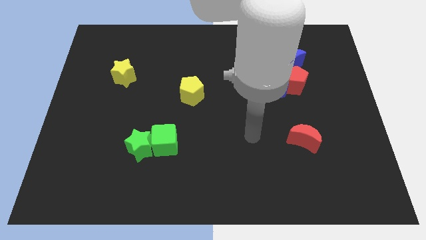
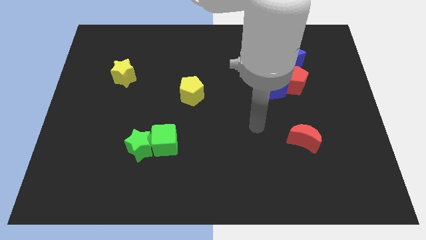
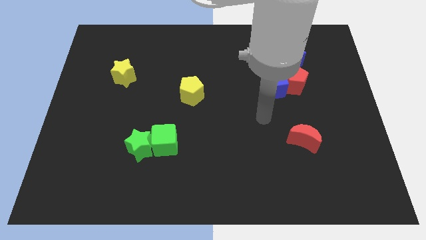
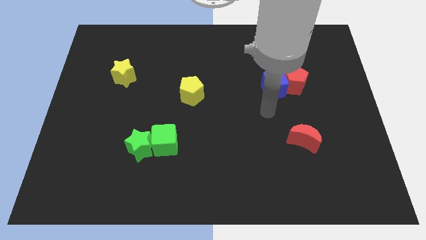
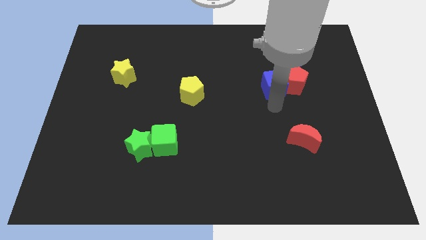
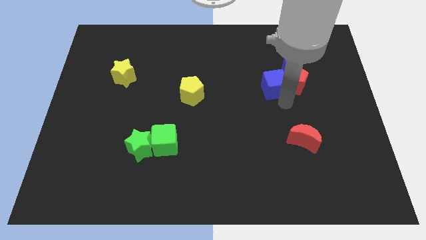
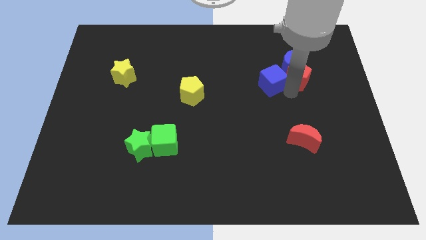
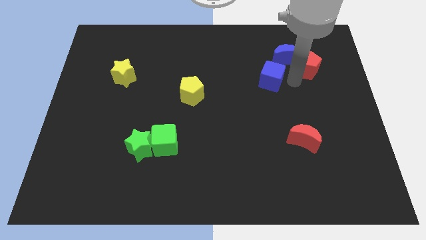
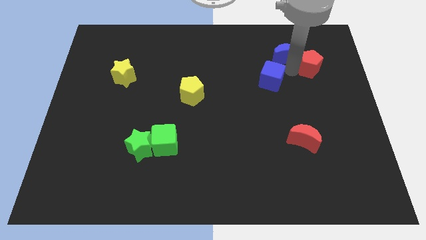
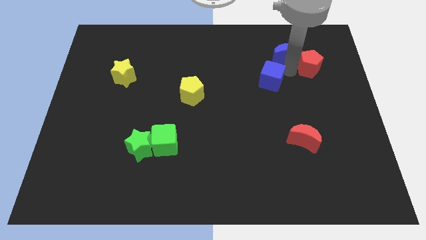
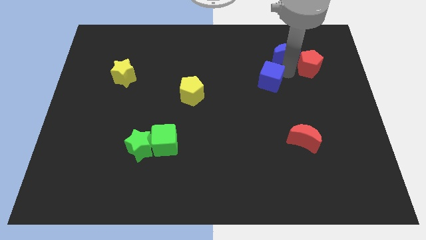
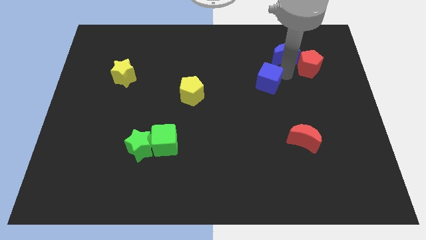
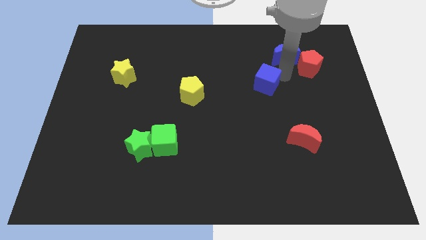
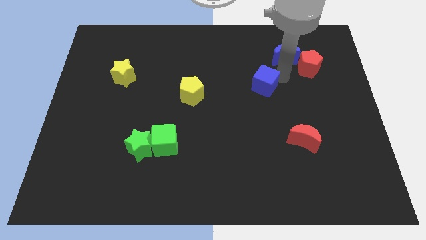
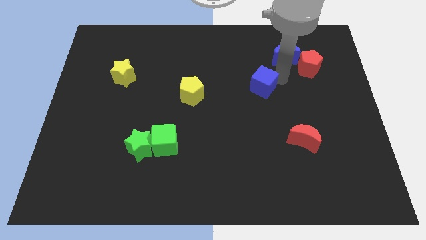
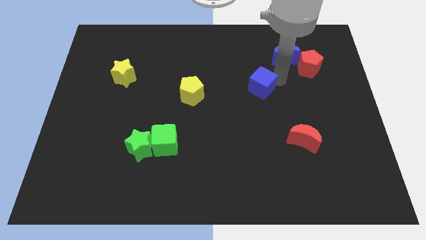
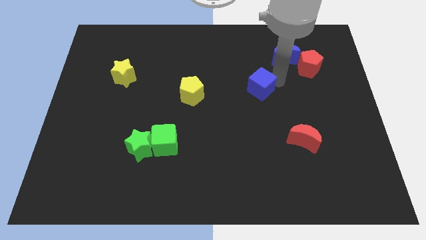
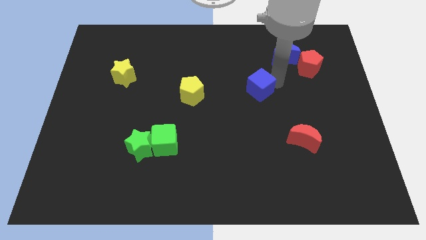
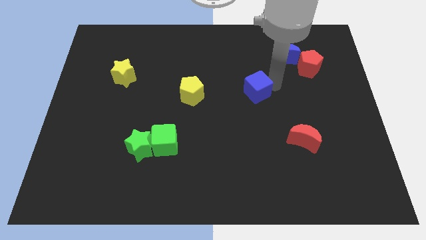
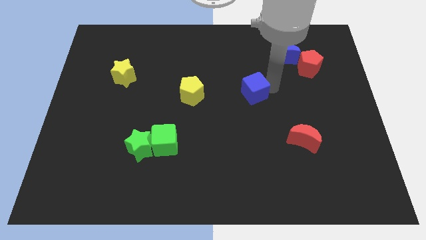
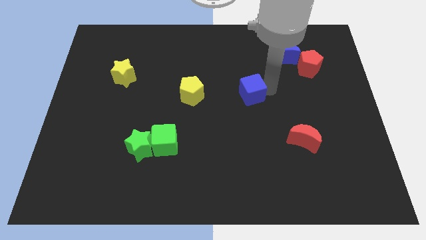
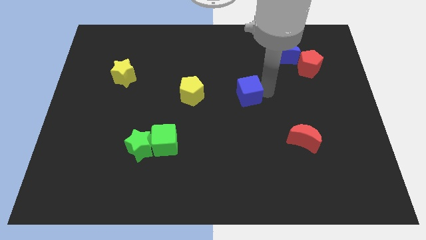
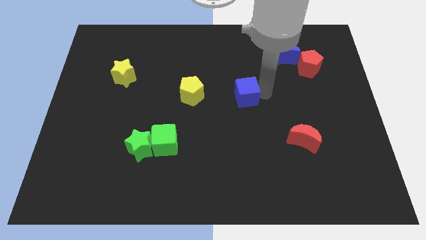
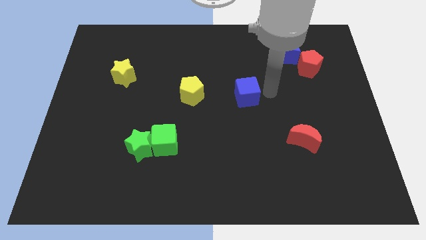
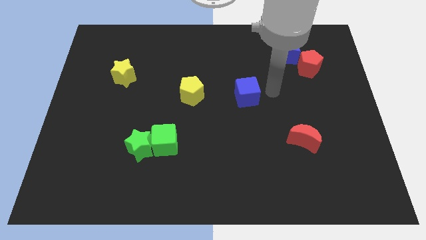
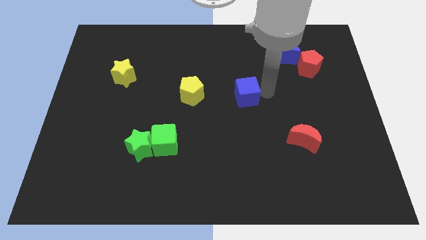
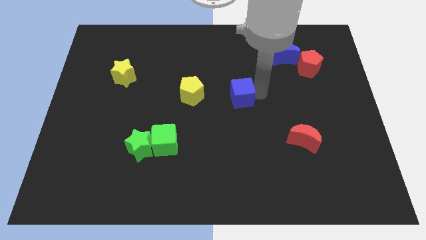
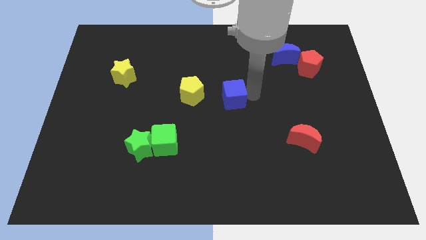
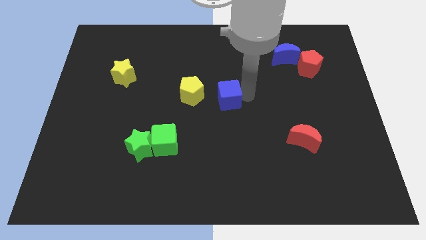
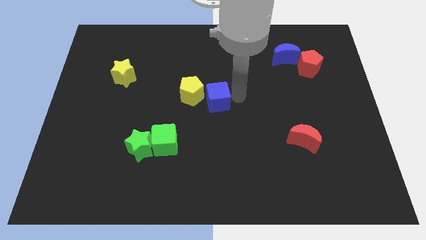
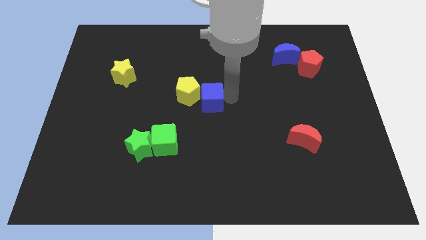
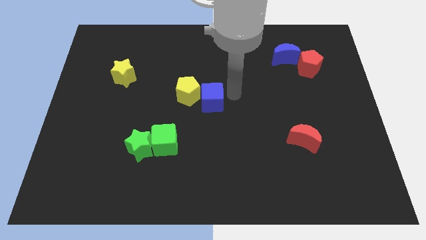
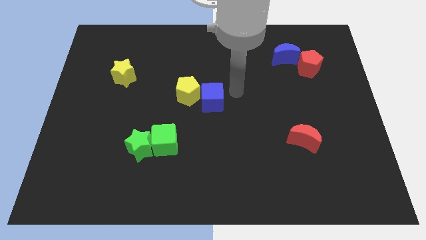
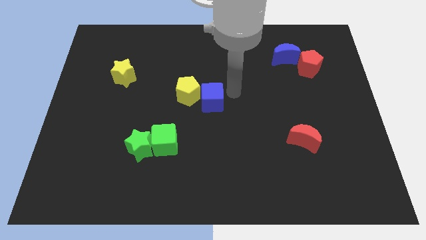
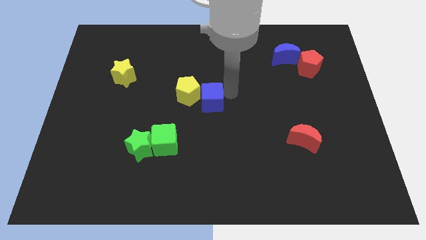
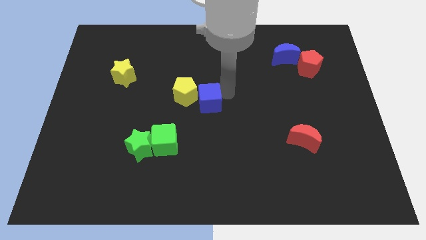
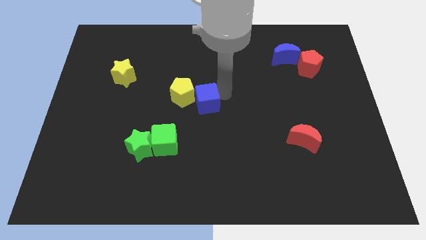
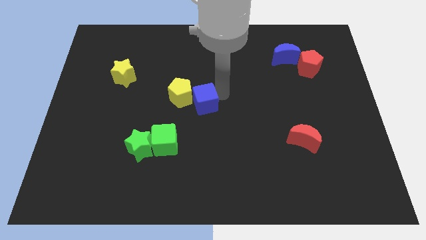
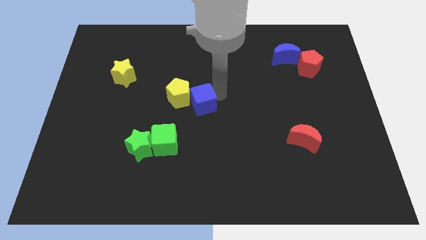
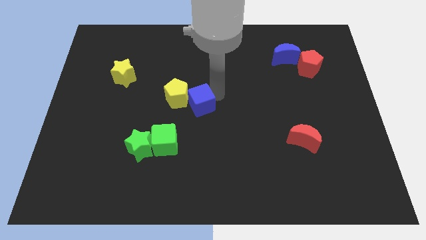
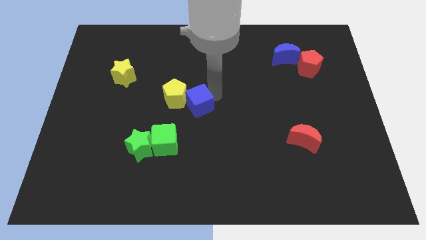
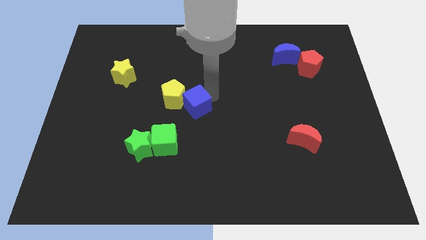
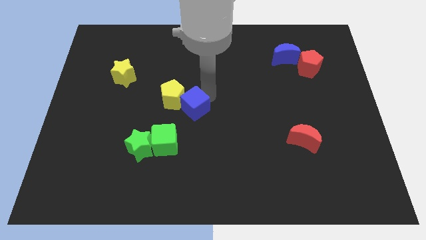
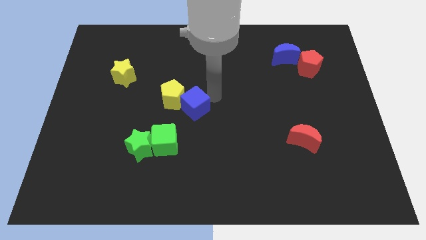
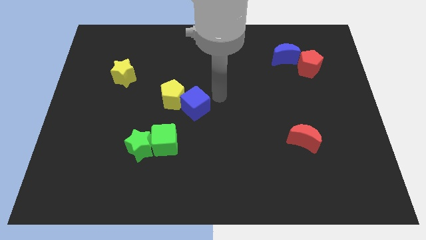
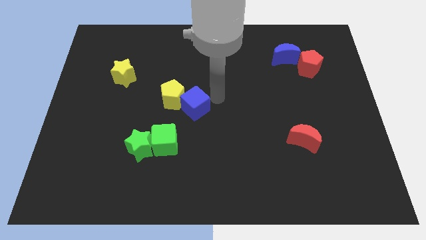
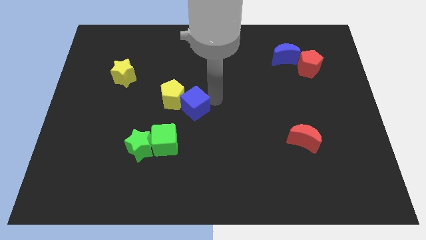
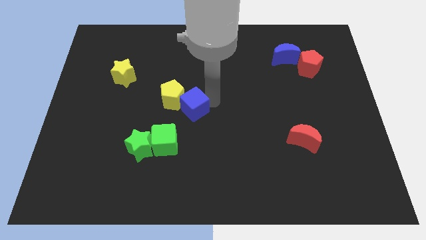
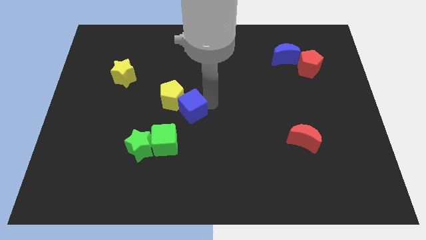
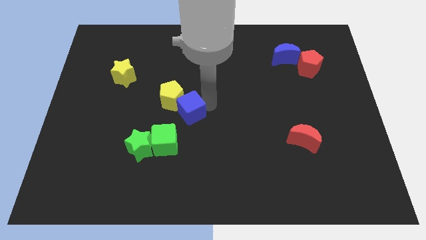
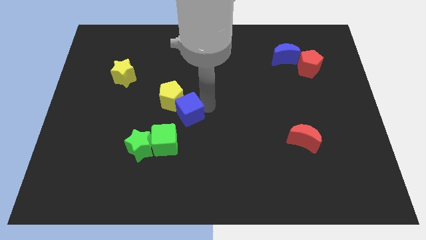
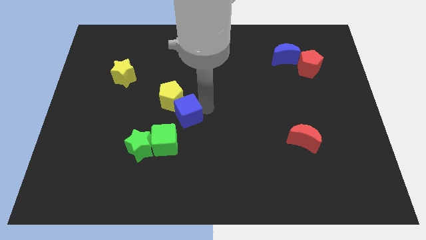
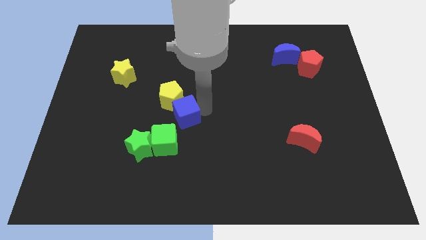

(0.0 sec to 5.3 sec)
slide the blue cube to the top right of the green star

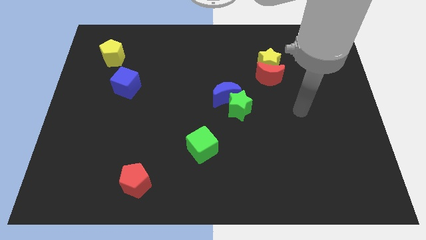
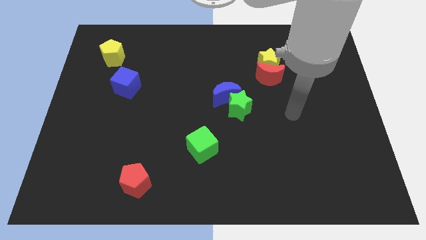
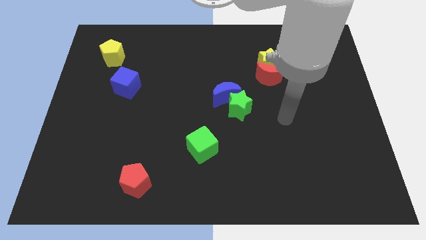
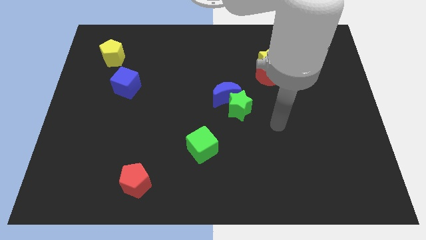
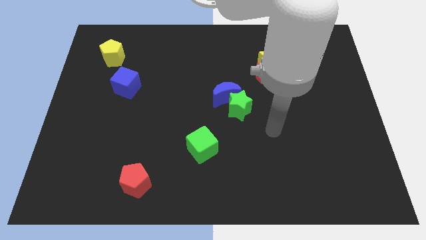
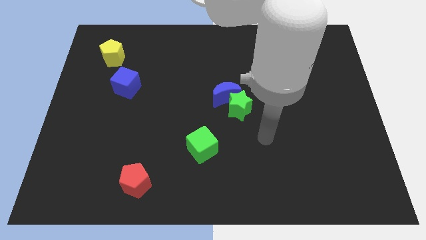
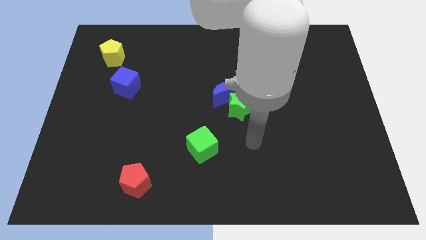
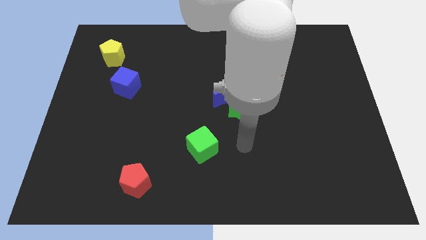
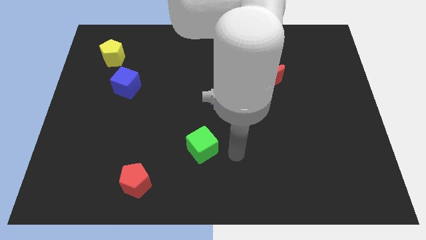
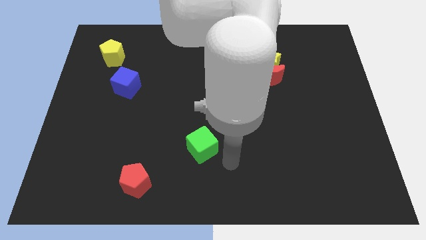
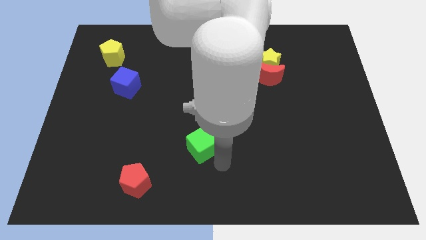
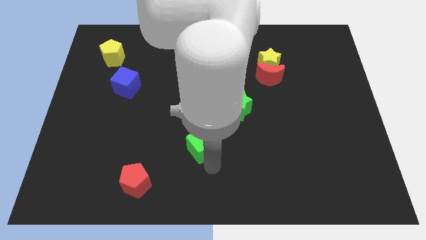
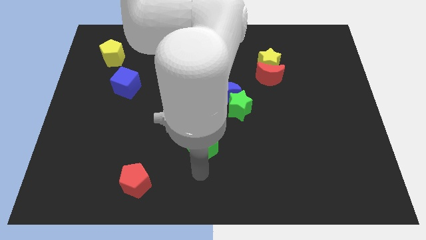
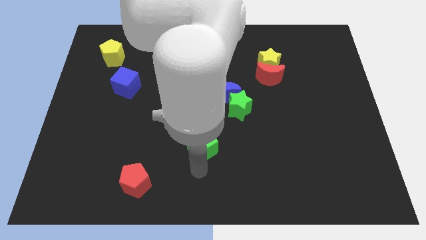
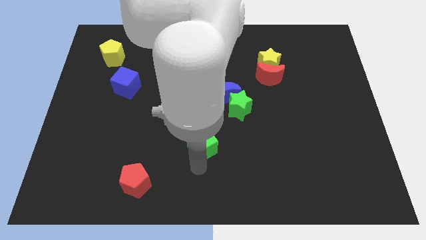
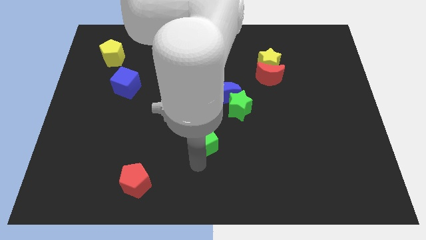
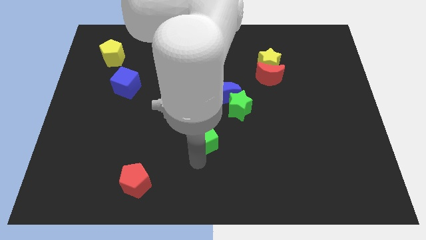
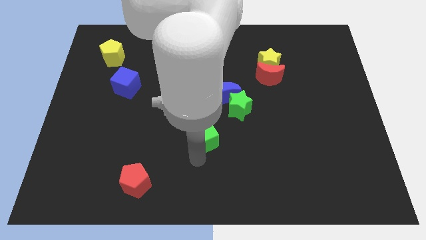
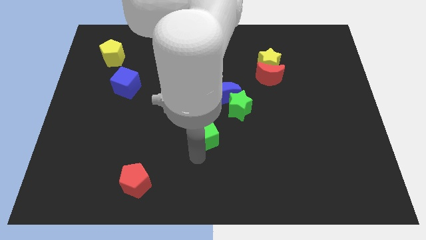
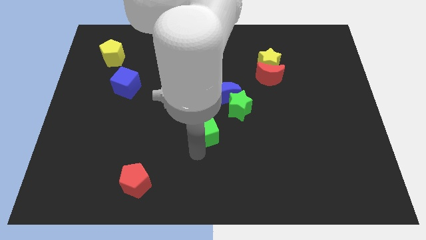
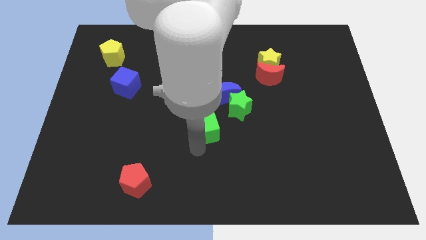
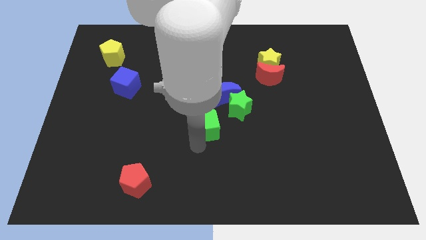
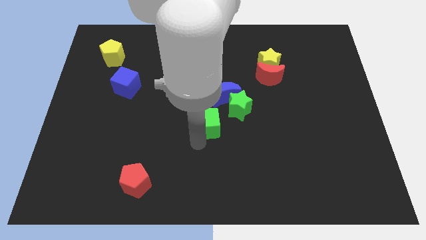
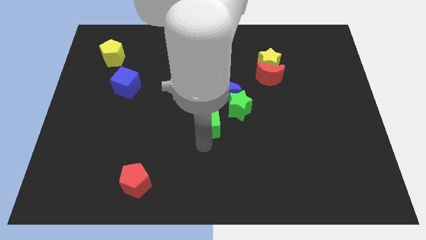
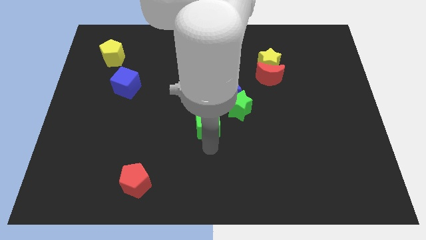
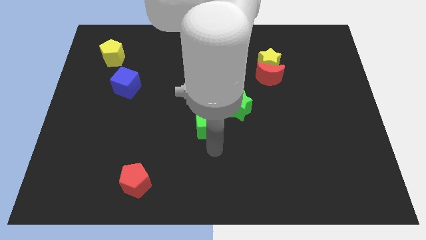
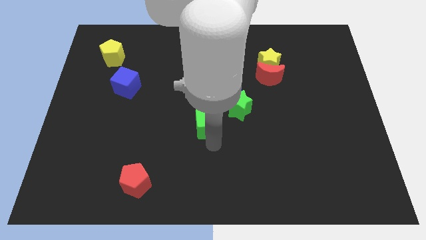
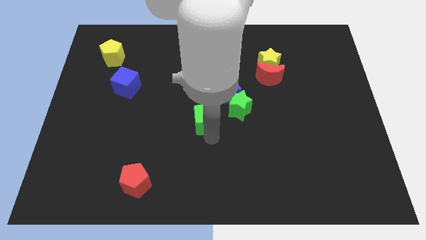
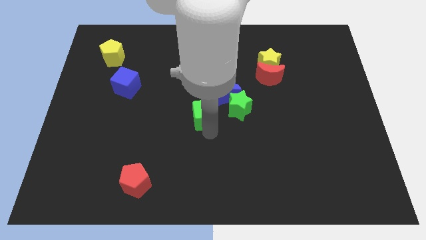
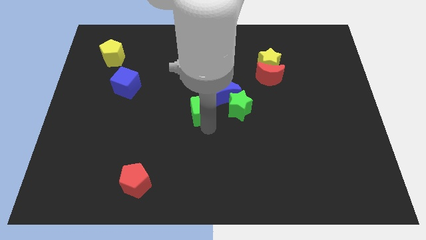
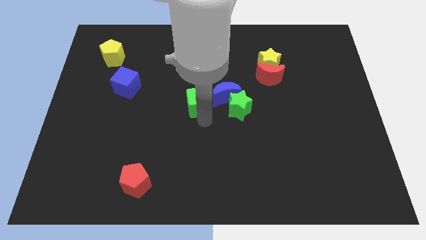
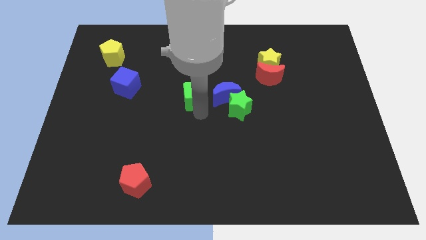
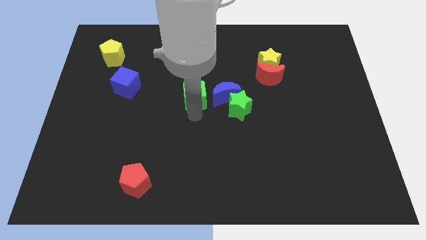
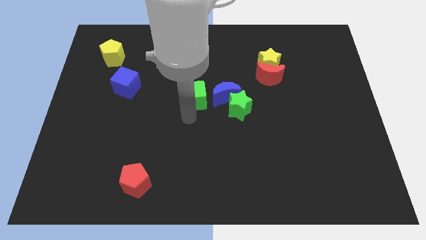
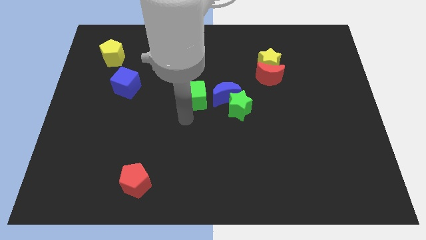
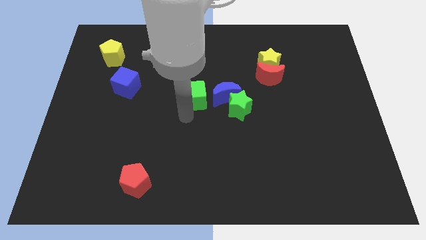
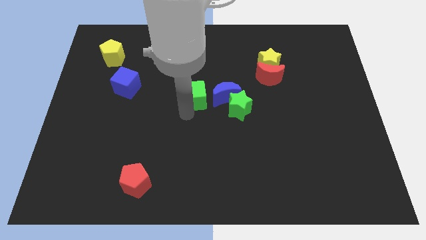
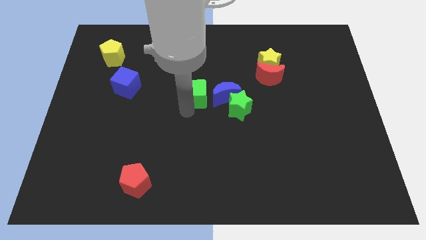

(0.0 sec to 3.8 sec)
move the green cube to the top left side of the blue moon
